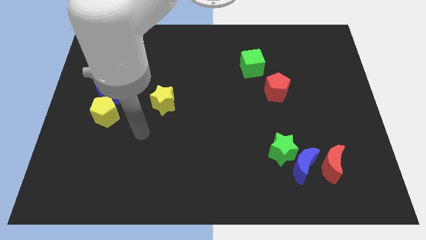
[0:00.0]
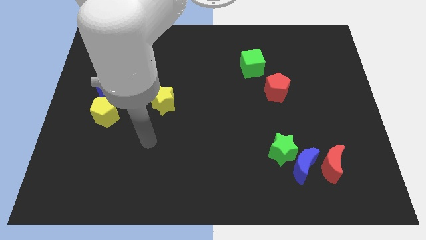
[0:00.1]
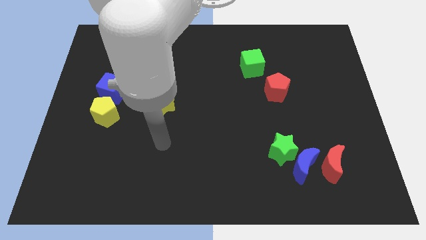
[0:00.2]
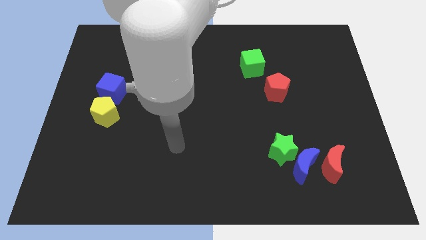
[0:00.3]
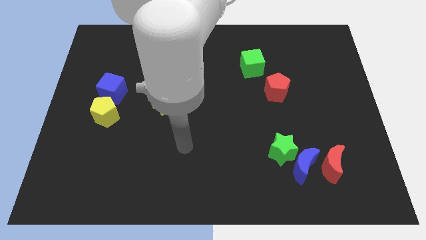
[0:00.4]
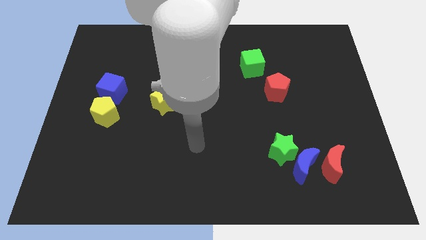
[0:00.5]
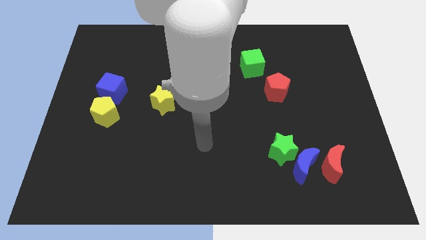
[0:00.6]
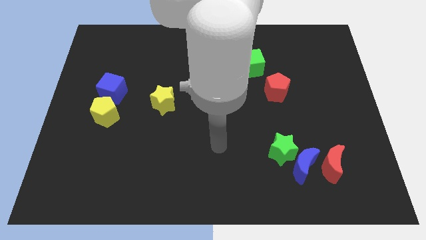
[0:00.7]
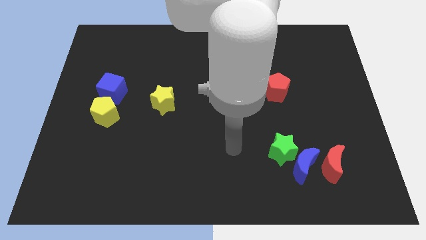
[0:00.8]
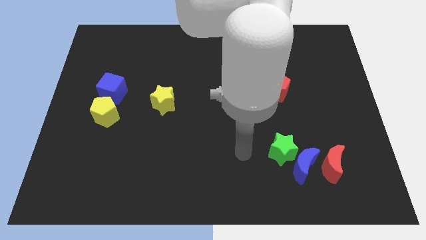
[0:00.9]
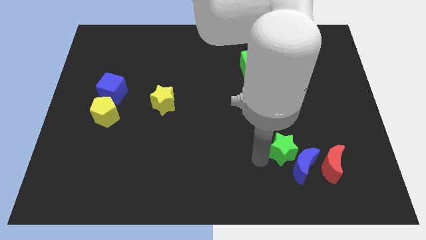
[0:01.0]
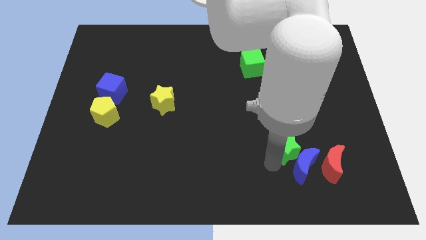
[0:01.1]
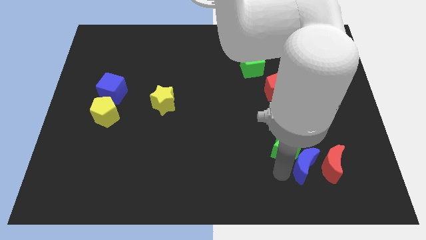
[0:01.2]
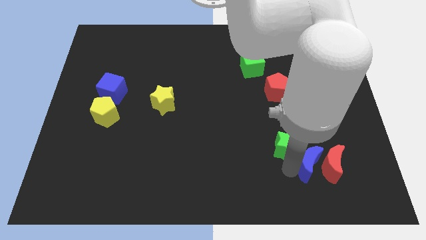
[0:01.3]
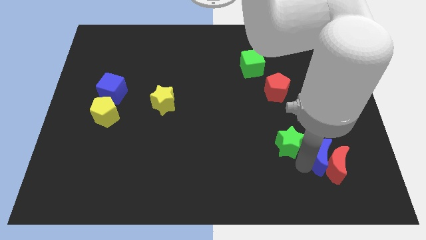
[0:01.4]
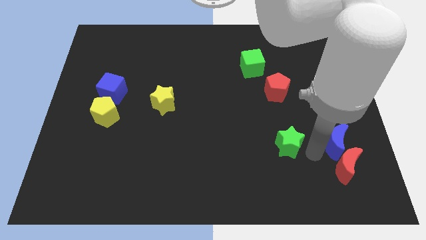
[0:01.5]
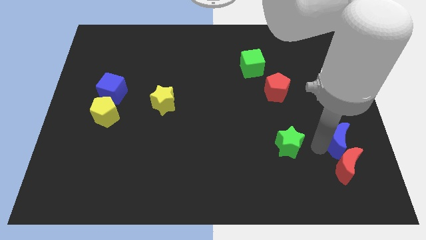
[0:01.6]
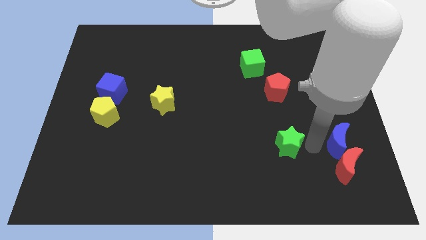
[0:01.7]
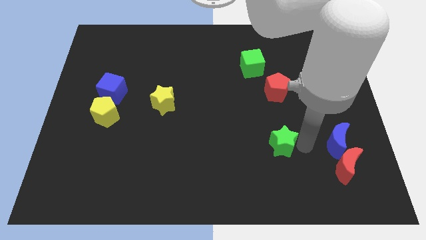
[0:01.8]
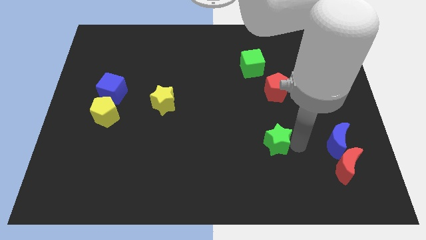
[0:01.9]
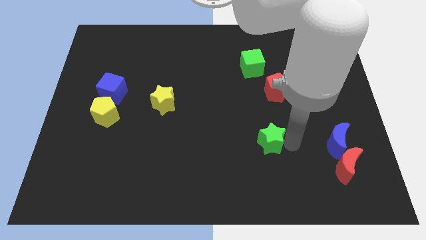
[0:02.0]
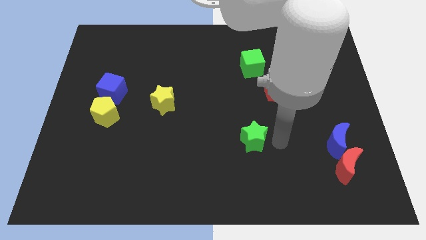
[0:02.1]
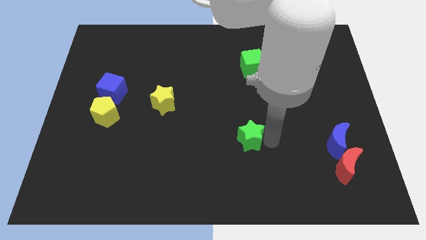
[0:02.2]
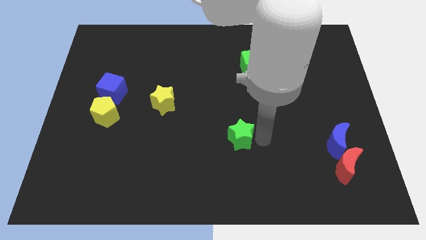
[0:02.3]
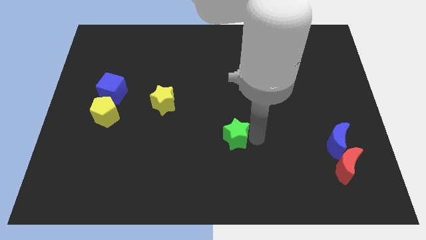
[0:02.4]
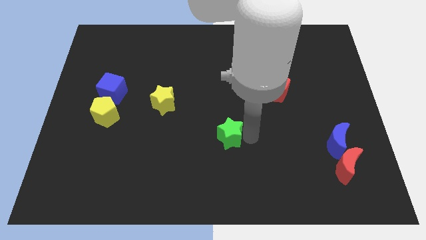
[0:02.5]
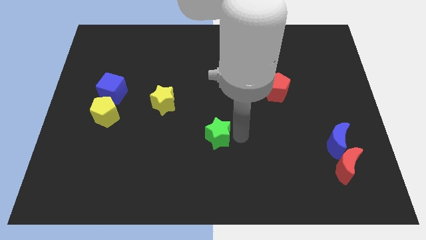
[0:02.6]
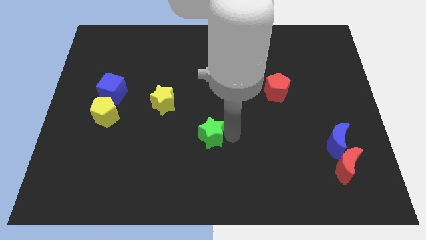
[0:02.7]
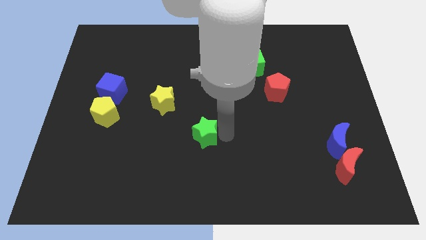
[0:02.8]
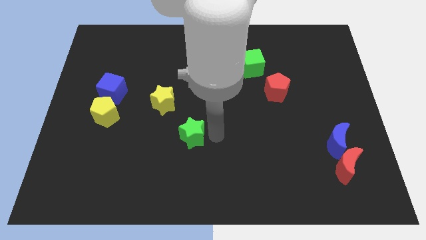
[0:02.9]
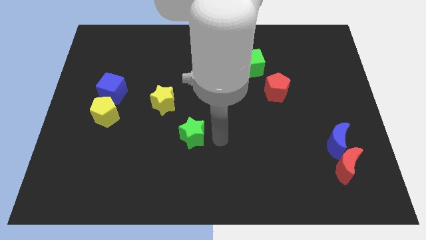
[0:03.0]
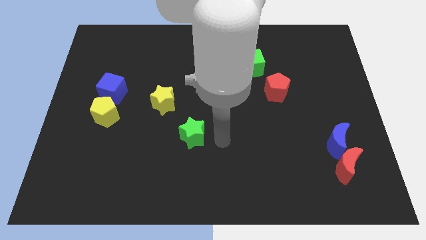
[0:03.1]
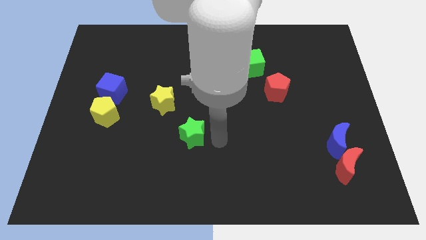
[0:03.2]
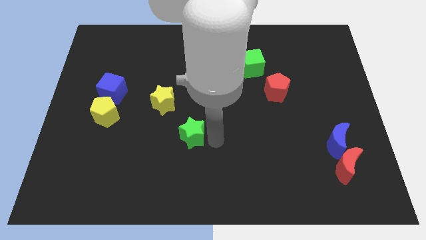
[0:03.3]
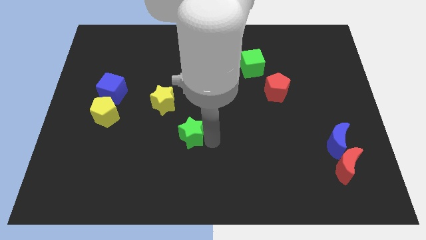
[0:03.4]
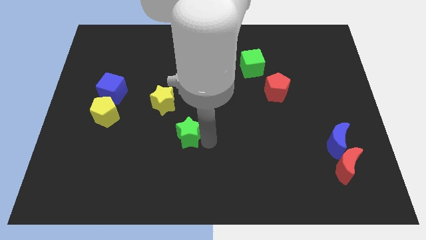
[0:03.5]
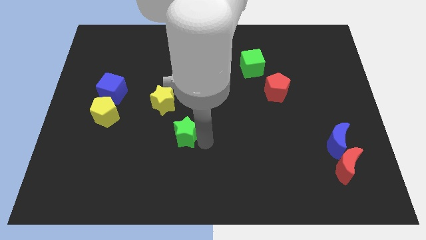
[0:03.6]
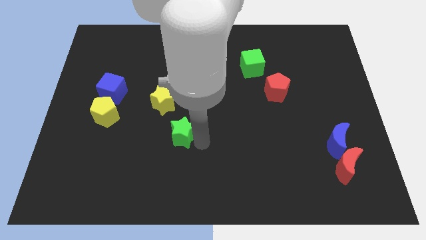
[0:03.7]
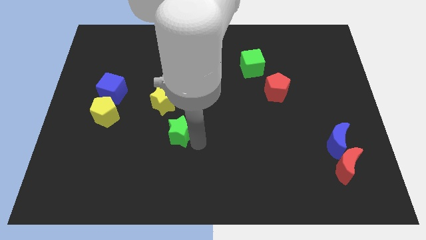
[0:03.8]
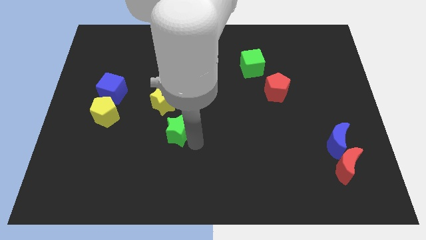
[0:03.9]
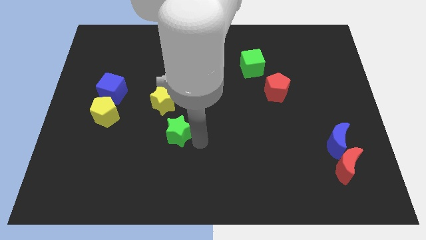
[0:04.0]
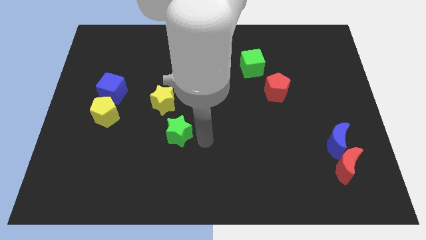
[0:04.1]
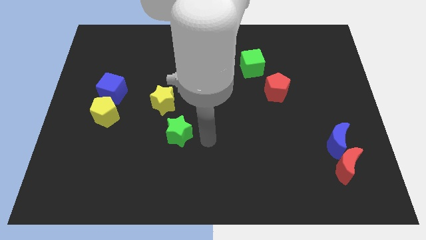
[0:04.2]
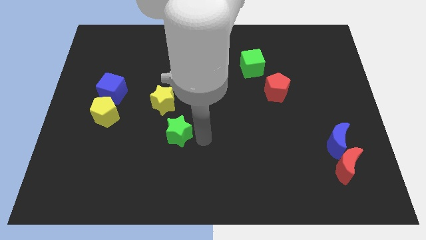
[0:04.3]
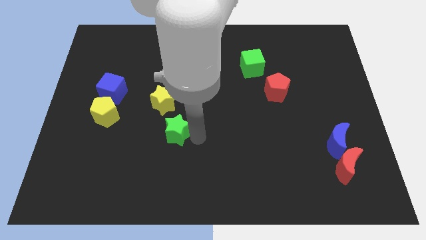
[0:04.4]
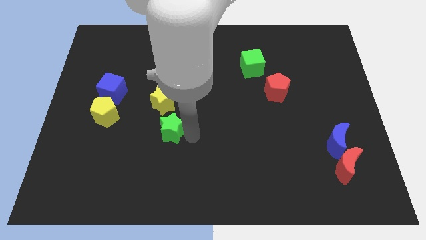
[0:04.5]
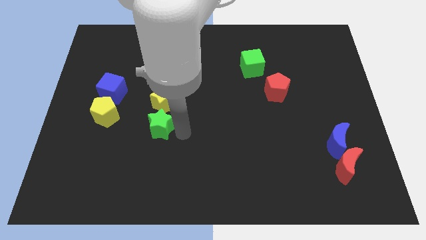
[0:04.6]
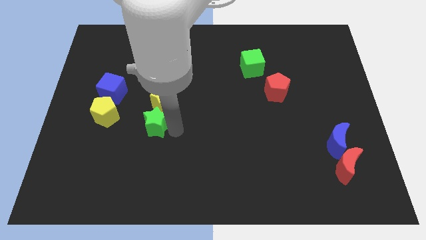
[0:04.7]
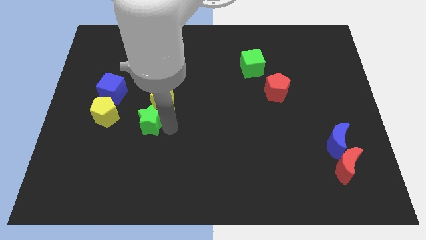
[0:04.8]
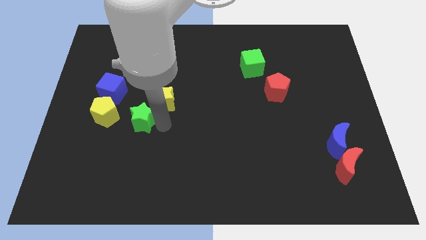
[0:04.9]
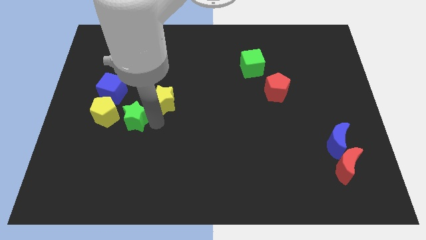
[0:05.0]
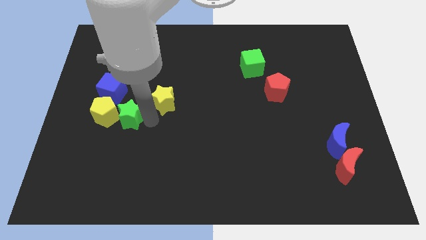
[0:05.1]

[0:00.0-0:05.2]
put the green star next to the yellow pentagon

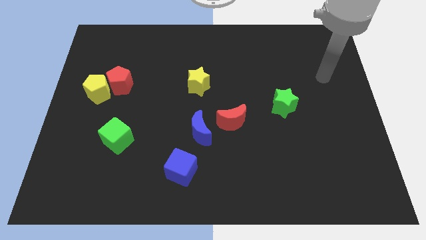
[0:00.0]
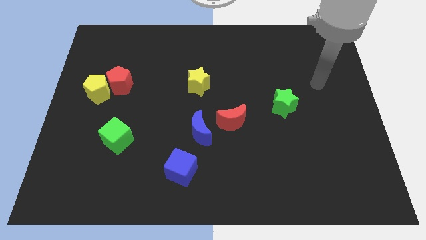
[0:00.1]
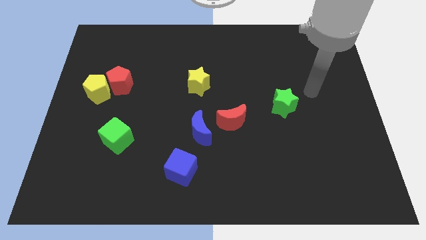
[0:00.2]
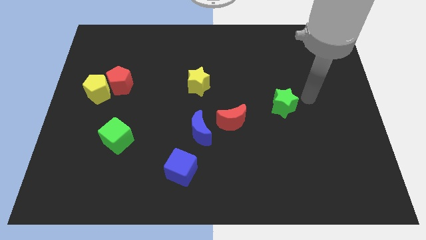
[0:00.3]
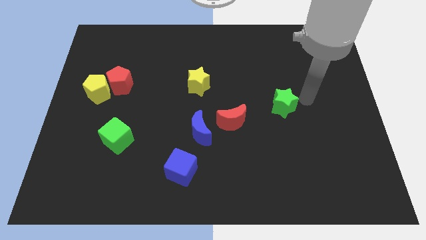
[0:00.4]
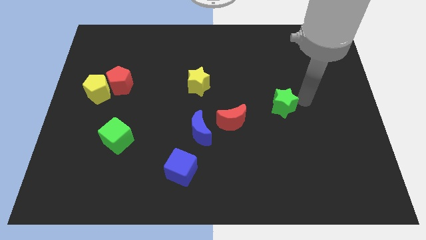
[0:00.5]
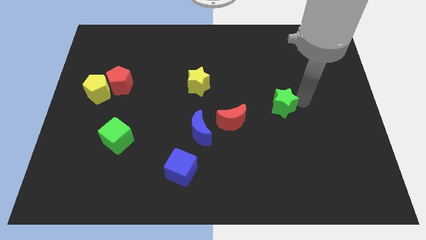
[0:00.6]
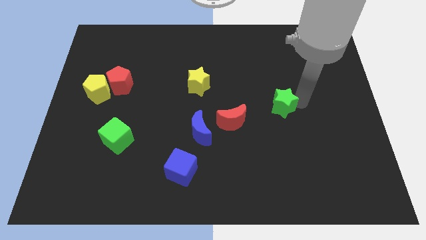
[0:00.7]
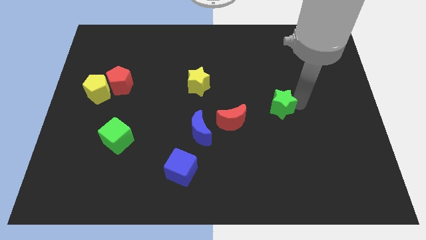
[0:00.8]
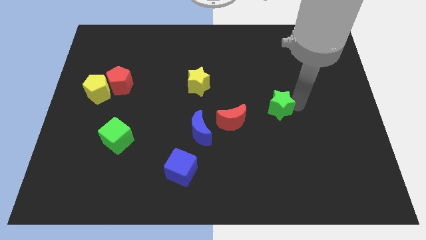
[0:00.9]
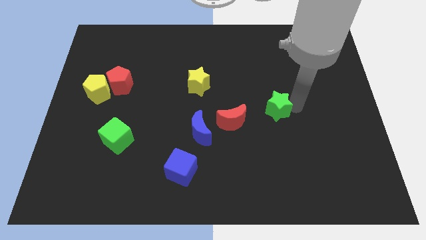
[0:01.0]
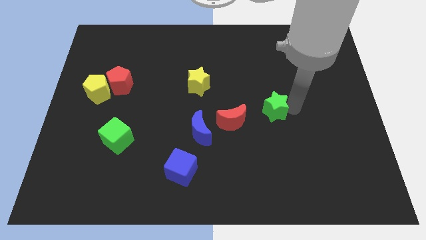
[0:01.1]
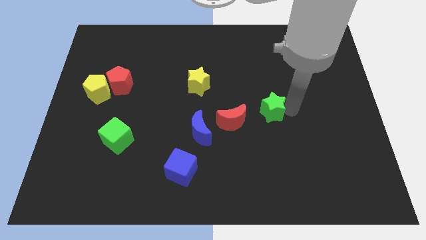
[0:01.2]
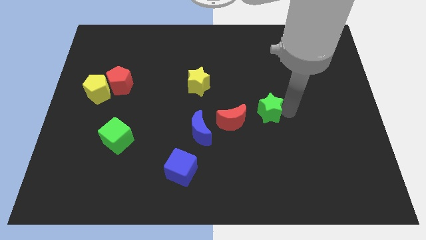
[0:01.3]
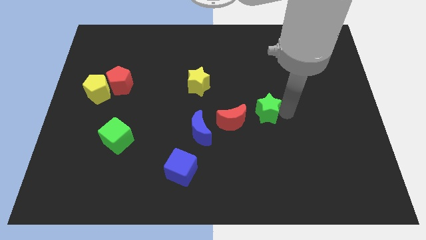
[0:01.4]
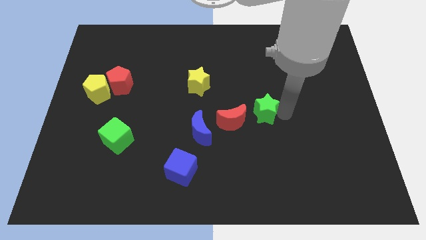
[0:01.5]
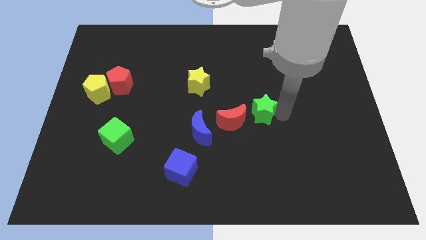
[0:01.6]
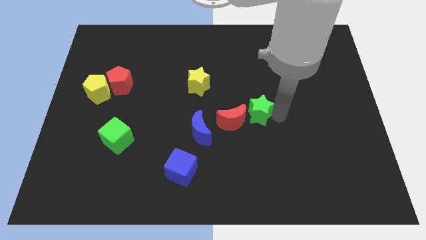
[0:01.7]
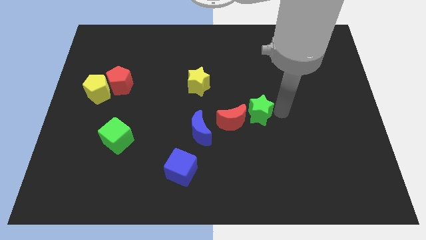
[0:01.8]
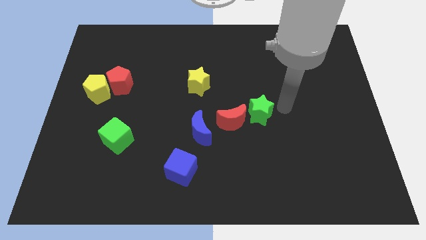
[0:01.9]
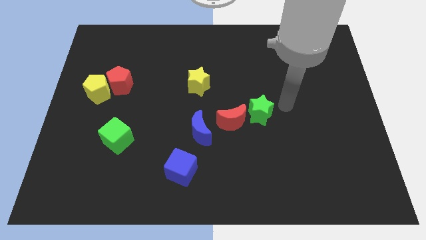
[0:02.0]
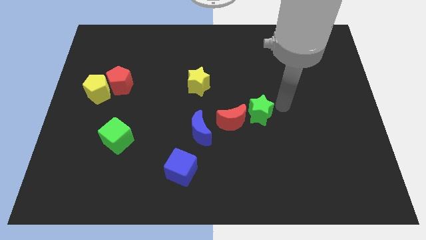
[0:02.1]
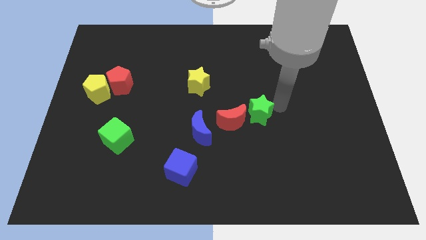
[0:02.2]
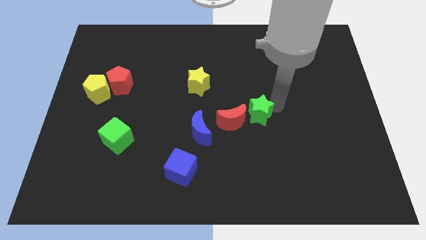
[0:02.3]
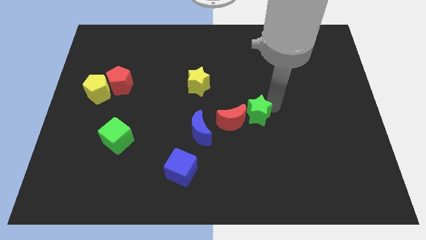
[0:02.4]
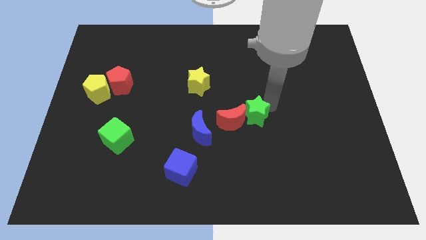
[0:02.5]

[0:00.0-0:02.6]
put the green star close to the red moon

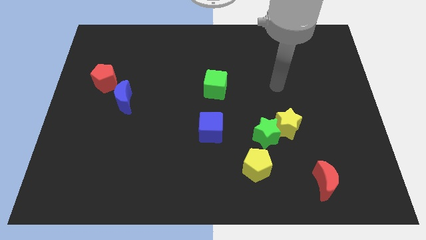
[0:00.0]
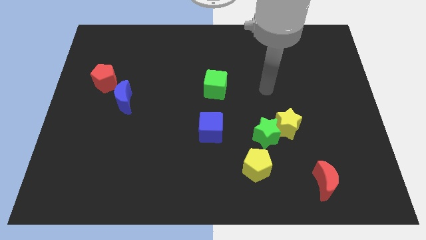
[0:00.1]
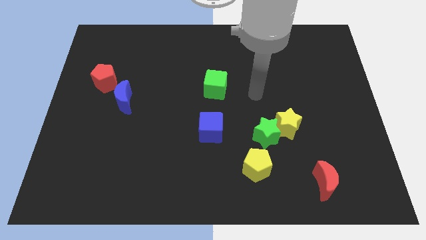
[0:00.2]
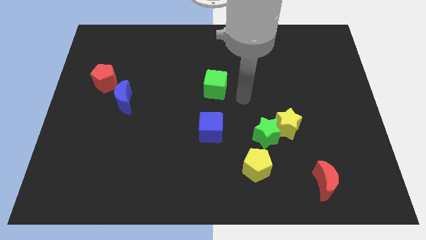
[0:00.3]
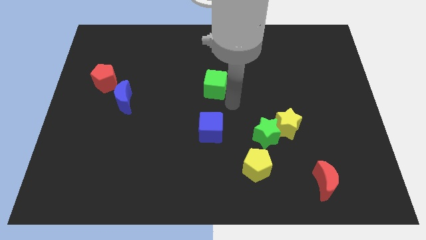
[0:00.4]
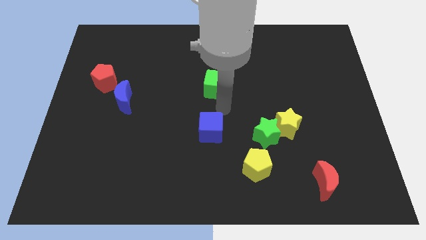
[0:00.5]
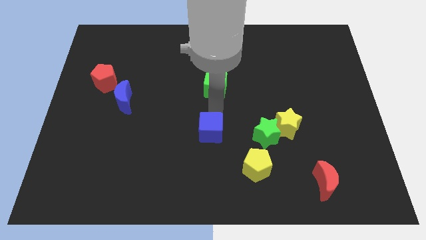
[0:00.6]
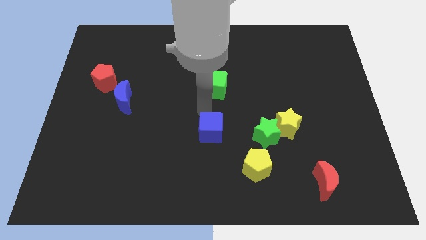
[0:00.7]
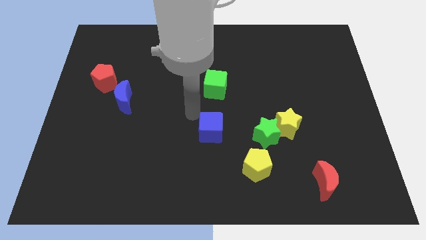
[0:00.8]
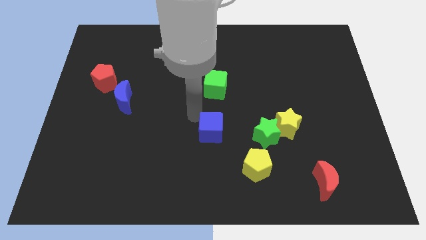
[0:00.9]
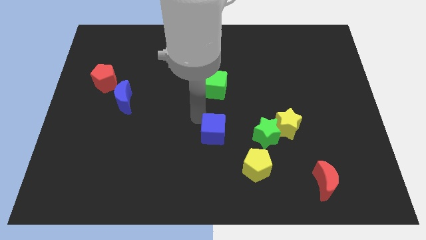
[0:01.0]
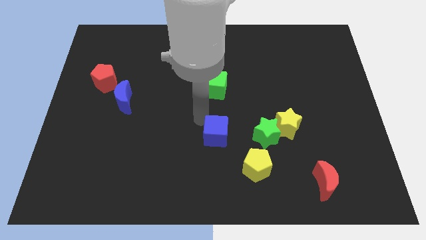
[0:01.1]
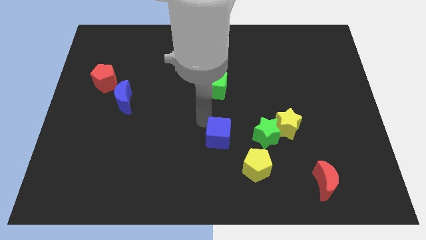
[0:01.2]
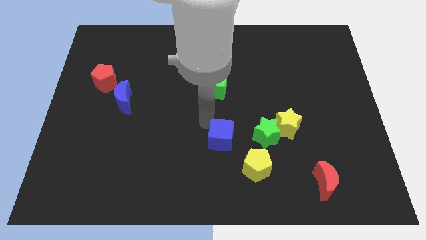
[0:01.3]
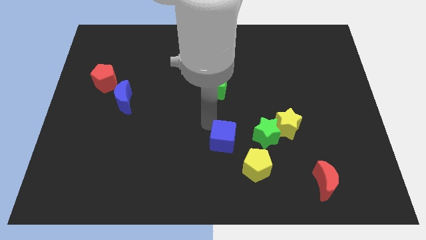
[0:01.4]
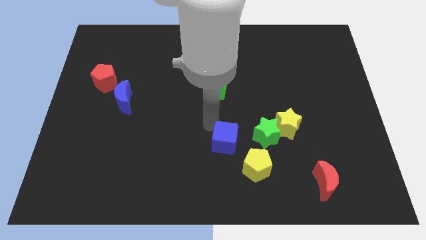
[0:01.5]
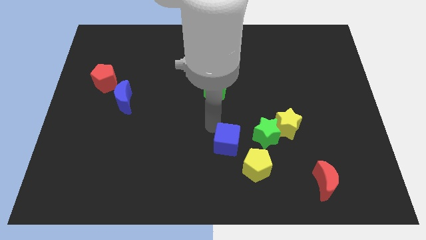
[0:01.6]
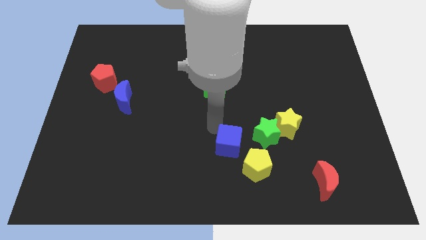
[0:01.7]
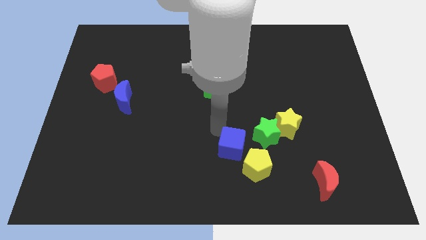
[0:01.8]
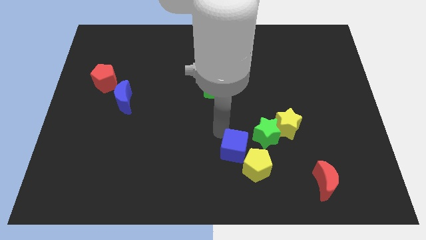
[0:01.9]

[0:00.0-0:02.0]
put the blue cube towards the yellow pentagon
